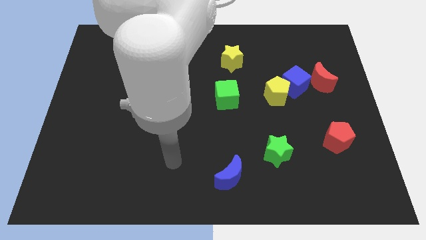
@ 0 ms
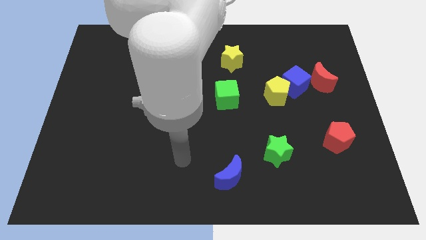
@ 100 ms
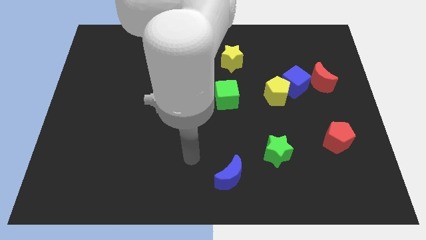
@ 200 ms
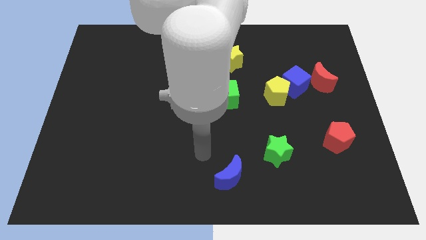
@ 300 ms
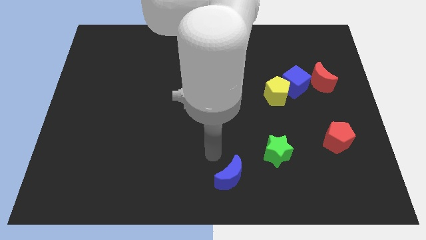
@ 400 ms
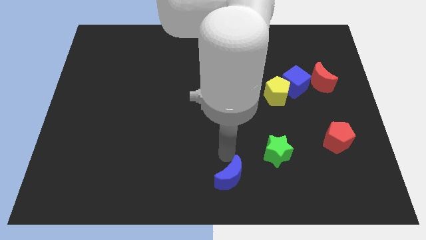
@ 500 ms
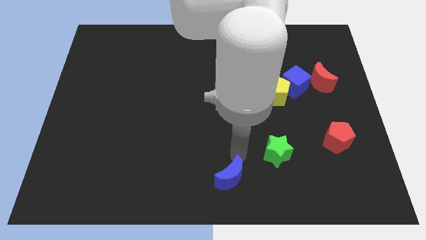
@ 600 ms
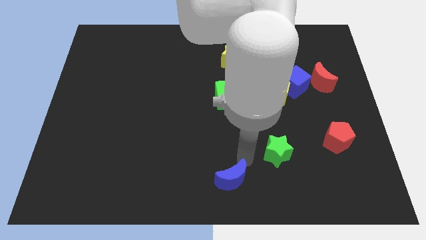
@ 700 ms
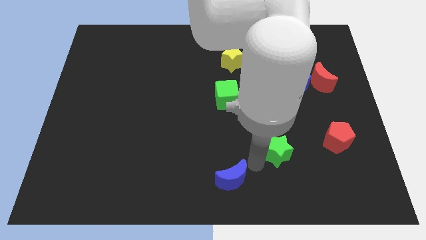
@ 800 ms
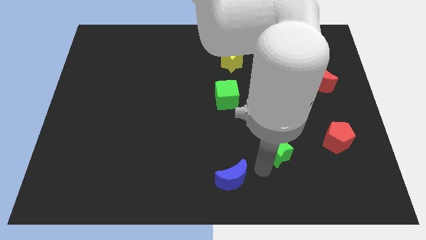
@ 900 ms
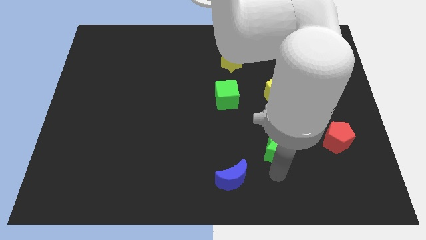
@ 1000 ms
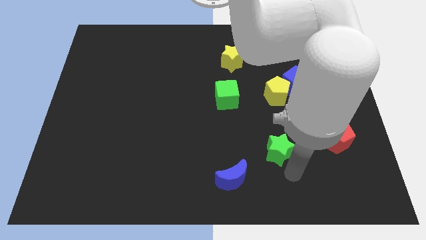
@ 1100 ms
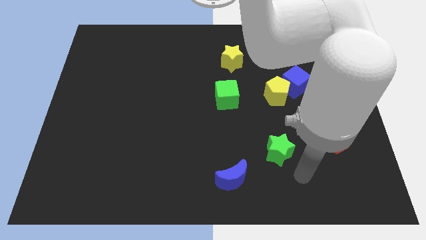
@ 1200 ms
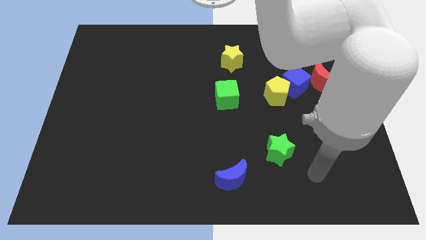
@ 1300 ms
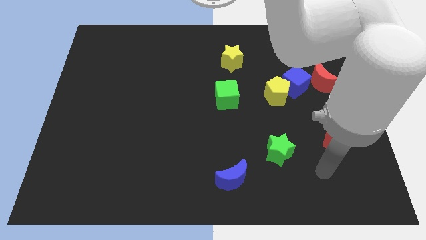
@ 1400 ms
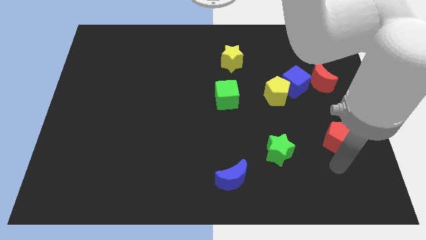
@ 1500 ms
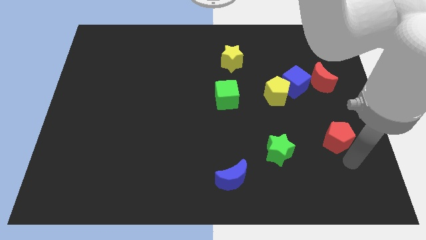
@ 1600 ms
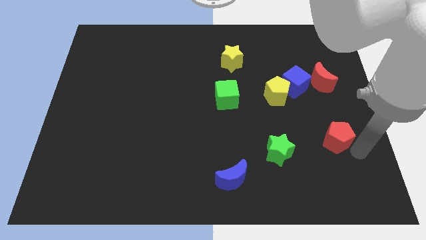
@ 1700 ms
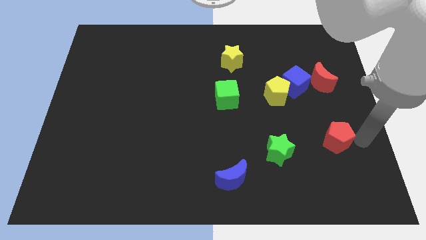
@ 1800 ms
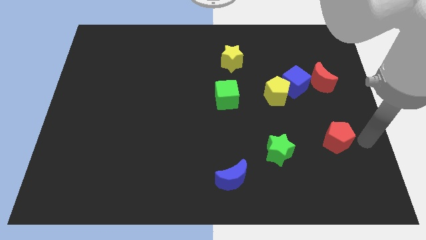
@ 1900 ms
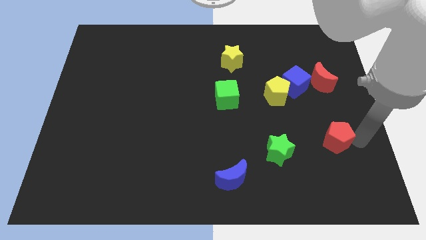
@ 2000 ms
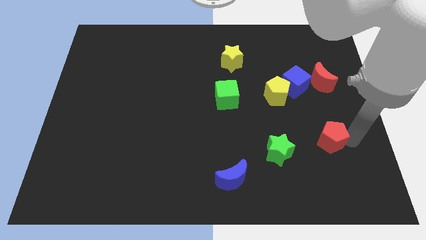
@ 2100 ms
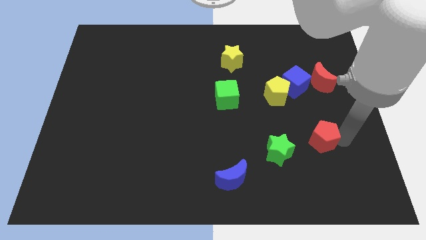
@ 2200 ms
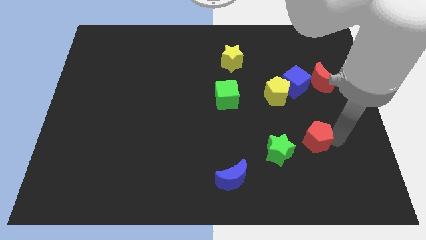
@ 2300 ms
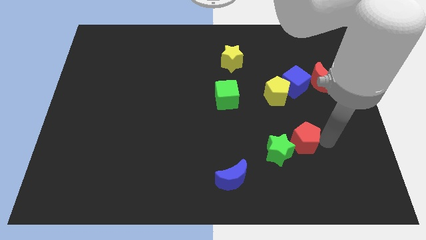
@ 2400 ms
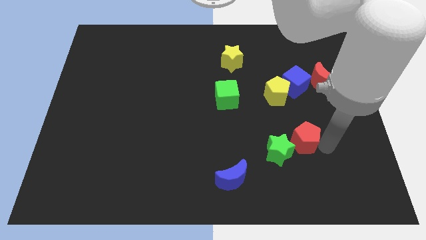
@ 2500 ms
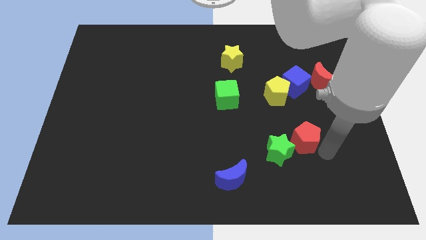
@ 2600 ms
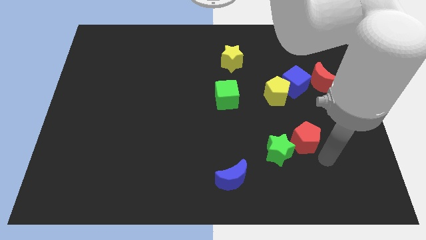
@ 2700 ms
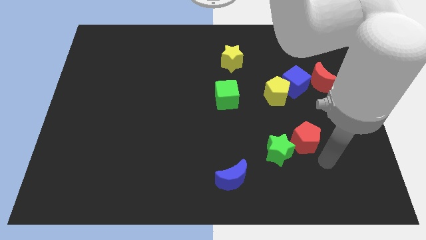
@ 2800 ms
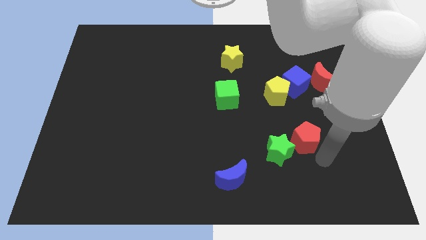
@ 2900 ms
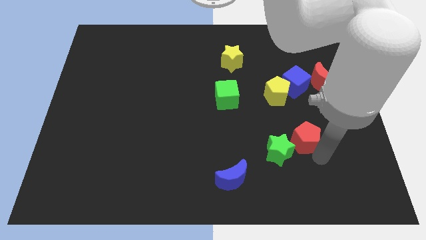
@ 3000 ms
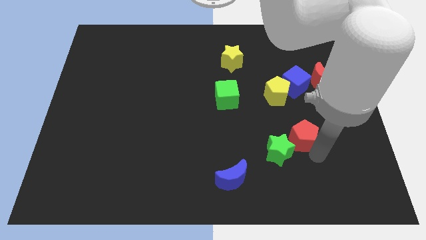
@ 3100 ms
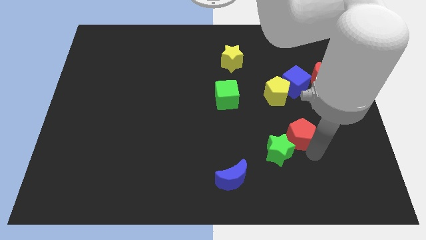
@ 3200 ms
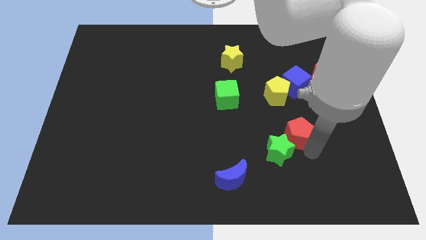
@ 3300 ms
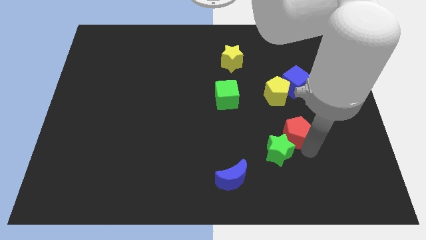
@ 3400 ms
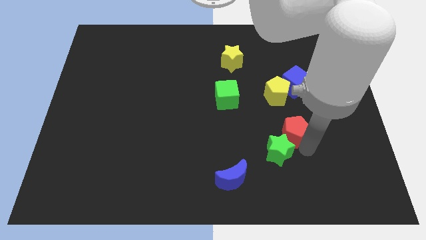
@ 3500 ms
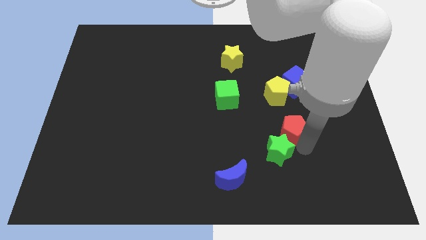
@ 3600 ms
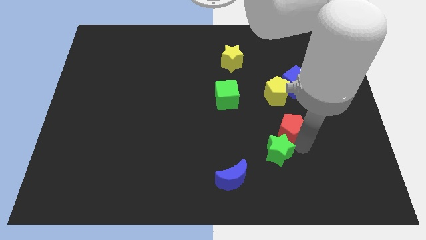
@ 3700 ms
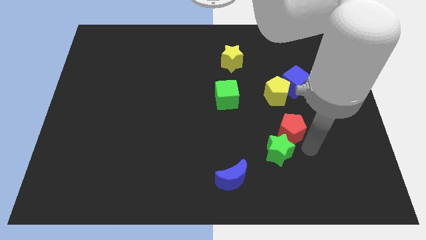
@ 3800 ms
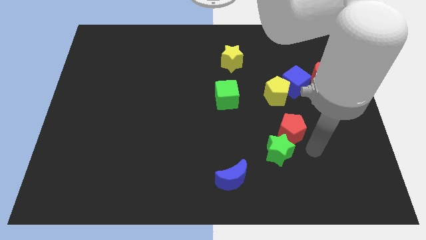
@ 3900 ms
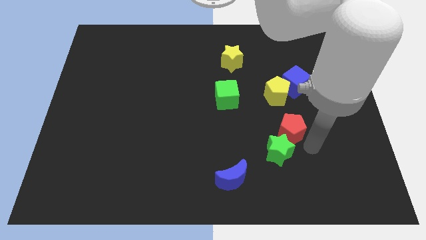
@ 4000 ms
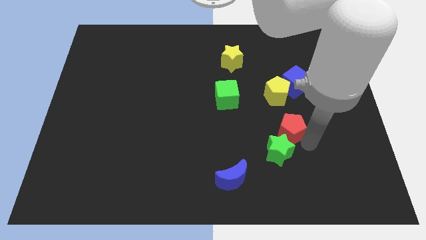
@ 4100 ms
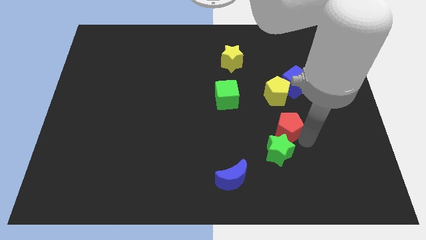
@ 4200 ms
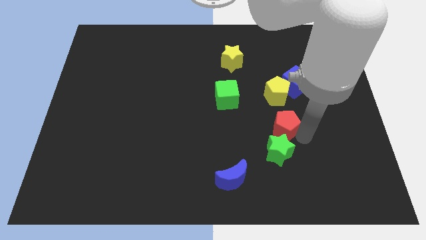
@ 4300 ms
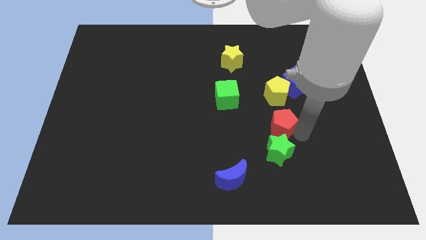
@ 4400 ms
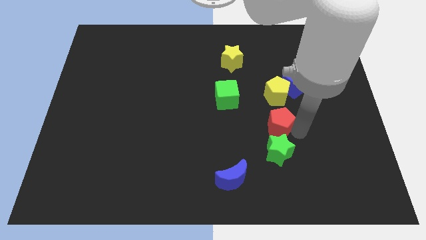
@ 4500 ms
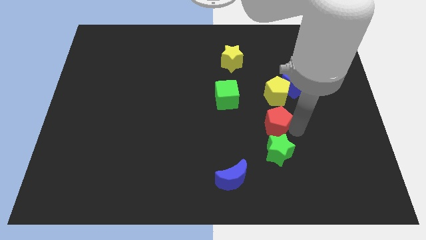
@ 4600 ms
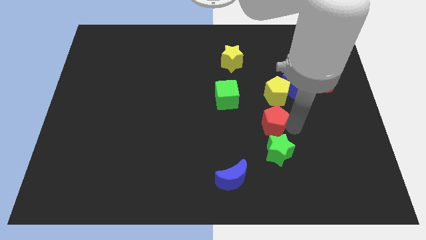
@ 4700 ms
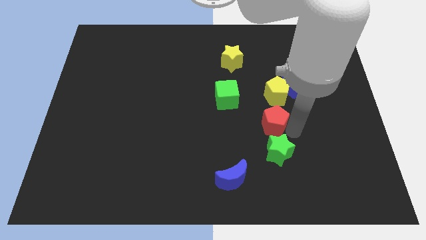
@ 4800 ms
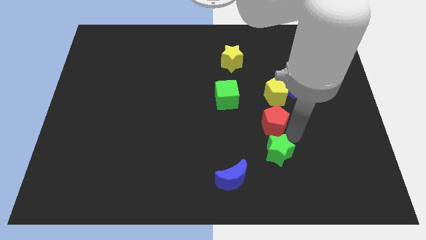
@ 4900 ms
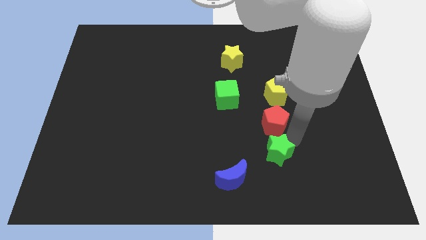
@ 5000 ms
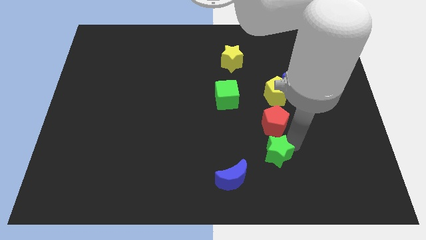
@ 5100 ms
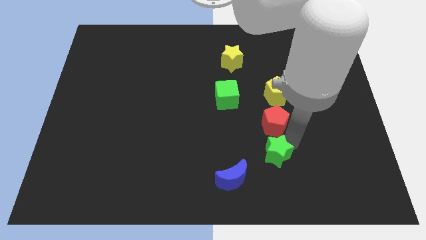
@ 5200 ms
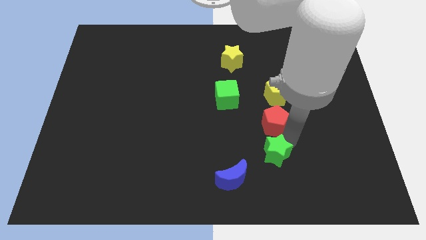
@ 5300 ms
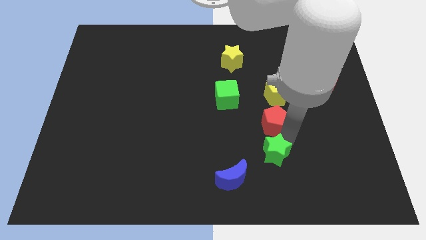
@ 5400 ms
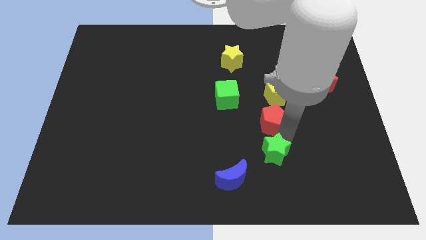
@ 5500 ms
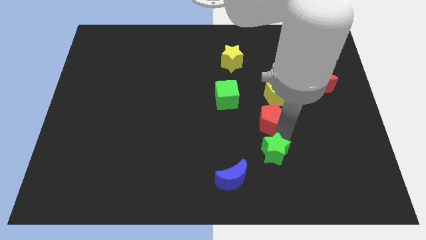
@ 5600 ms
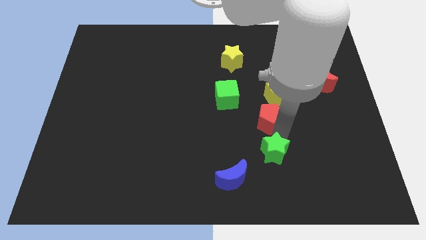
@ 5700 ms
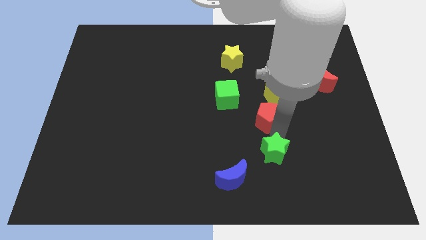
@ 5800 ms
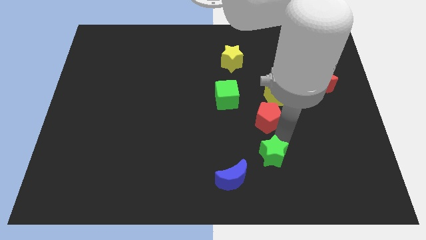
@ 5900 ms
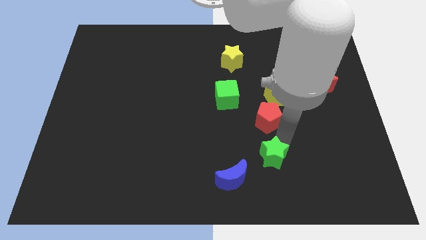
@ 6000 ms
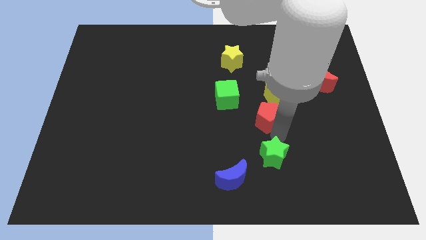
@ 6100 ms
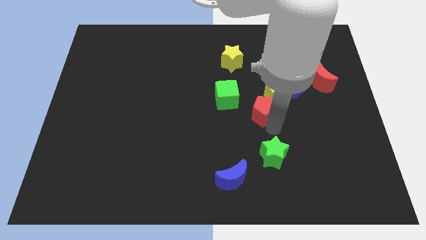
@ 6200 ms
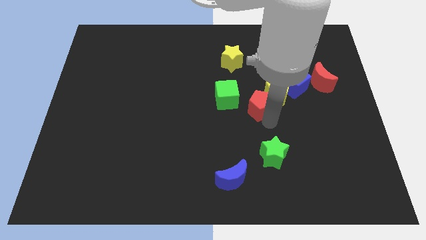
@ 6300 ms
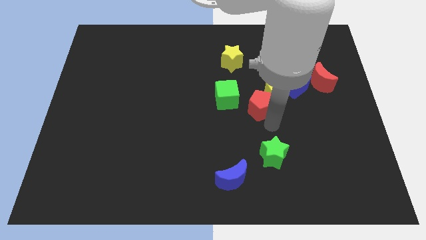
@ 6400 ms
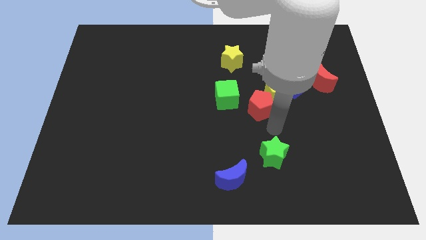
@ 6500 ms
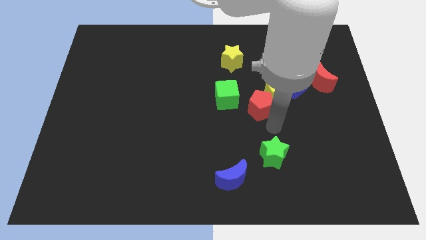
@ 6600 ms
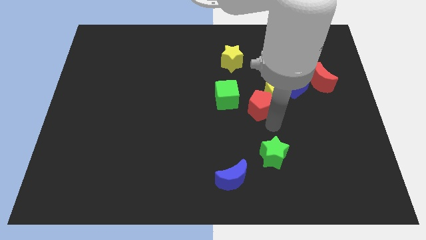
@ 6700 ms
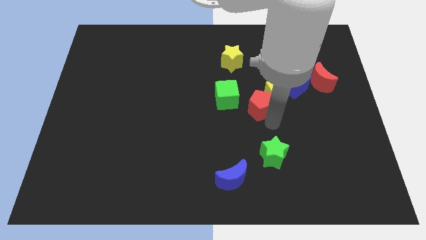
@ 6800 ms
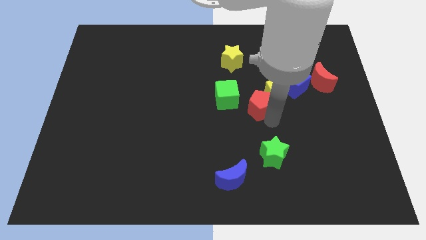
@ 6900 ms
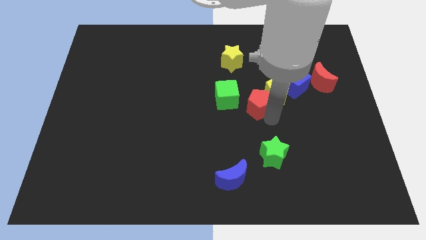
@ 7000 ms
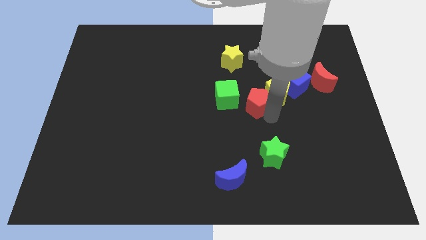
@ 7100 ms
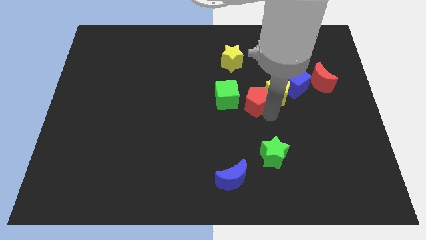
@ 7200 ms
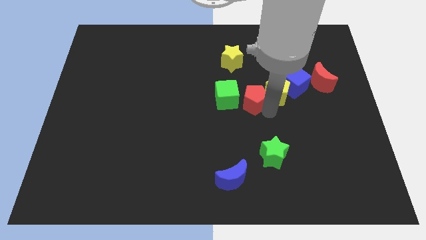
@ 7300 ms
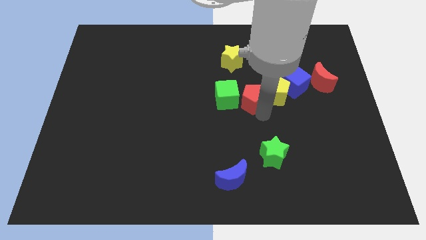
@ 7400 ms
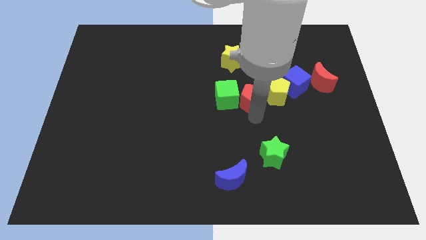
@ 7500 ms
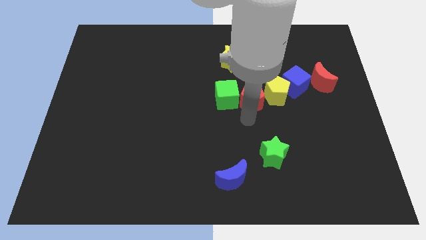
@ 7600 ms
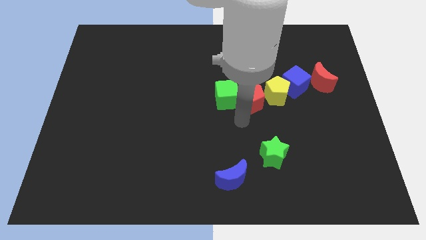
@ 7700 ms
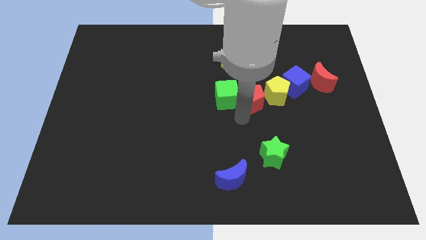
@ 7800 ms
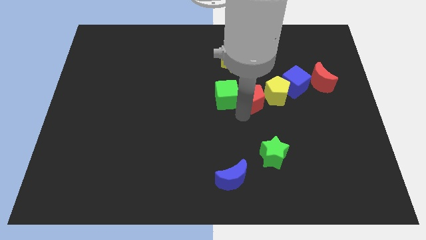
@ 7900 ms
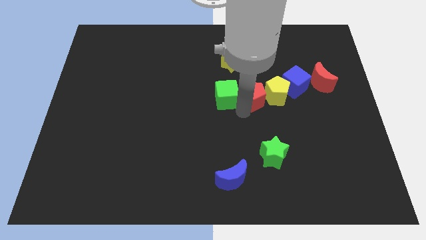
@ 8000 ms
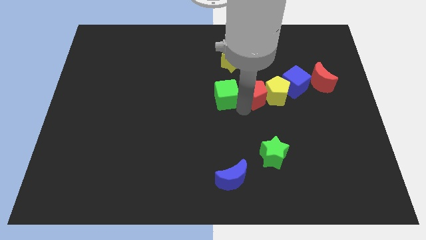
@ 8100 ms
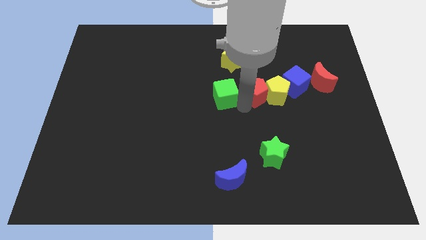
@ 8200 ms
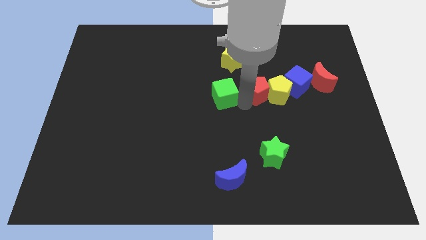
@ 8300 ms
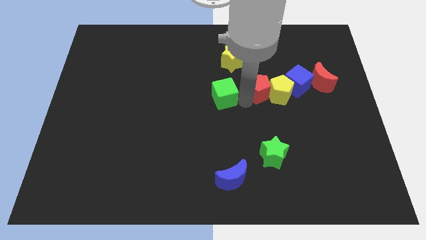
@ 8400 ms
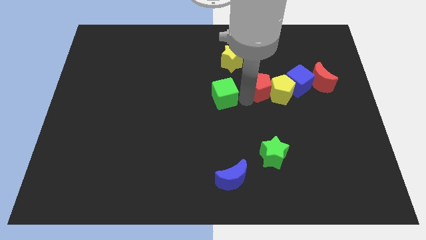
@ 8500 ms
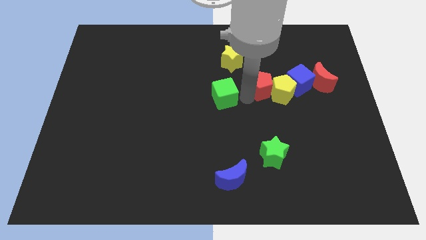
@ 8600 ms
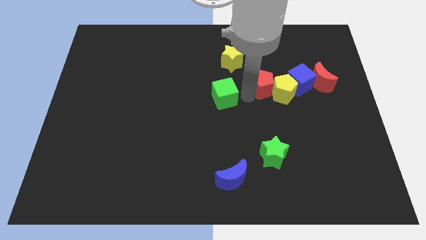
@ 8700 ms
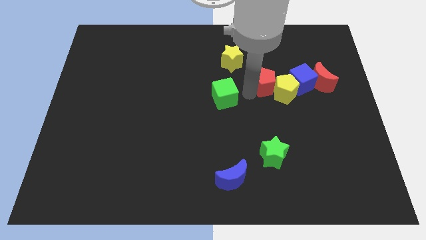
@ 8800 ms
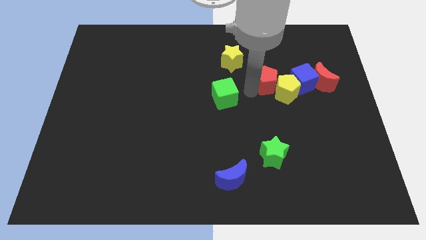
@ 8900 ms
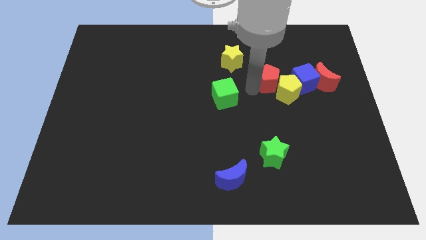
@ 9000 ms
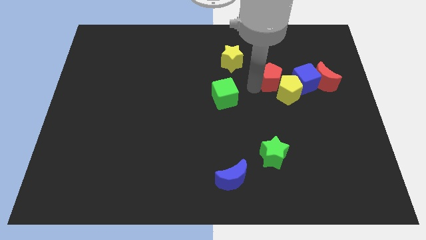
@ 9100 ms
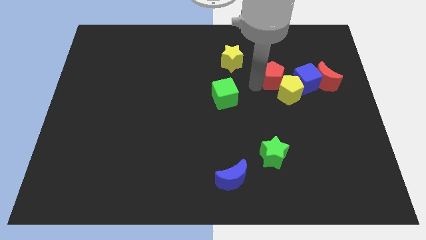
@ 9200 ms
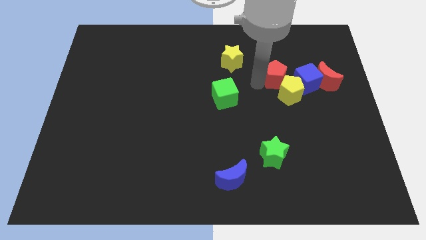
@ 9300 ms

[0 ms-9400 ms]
slide the red pentagon to the top left of the blue cube
